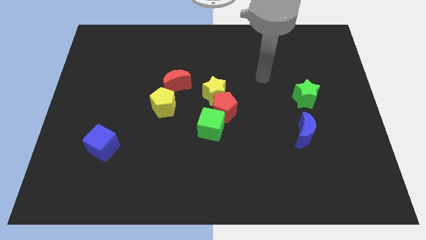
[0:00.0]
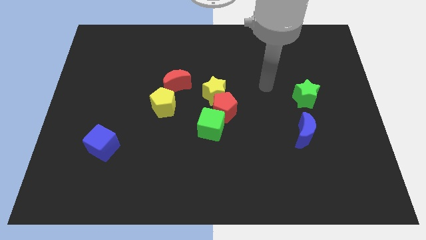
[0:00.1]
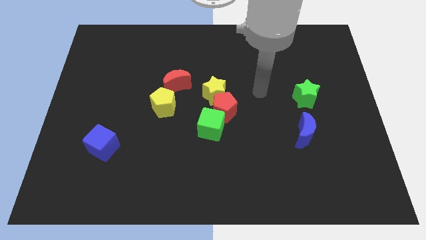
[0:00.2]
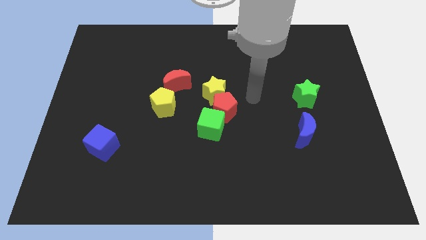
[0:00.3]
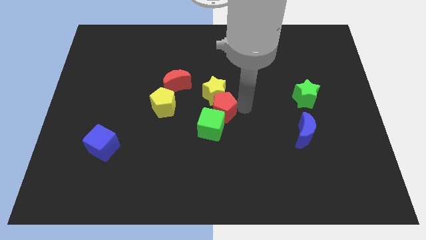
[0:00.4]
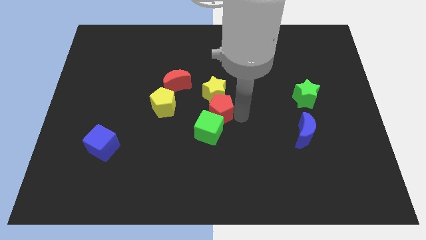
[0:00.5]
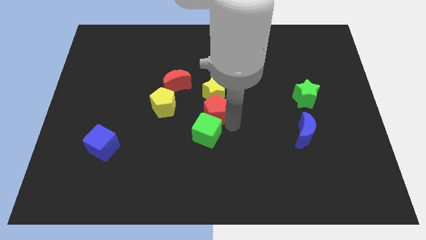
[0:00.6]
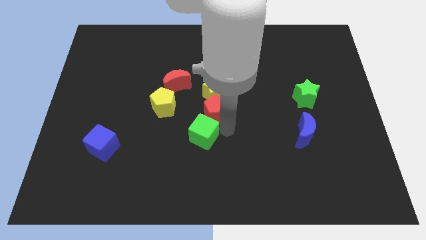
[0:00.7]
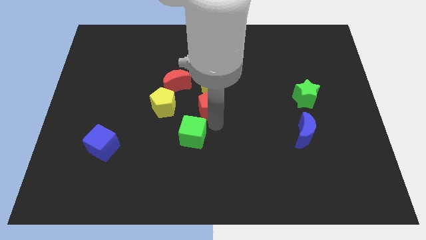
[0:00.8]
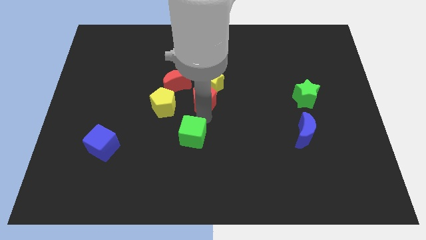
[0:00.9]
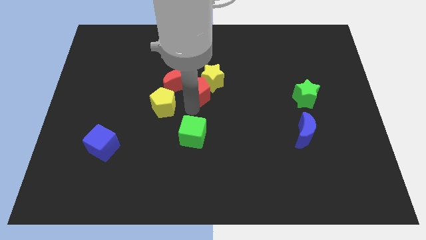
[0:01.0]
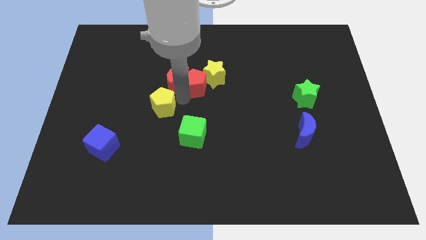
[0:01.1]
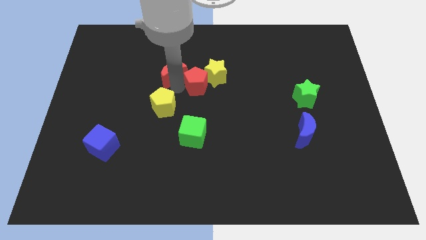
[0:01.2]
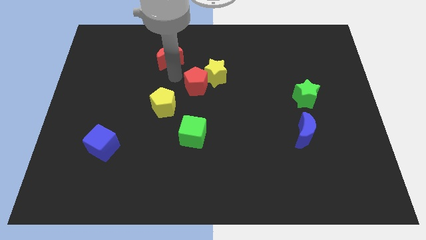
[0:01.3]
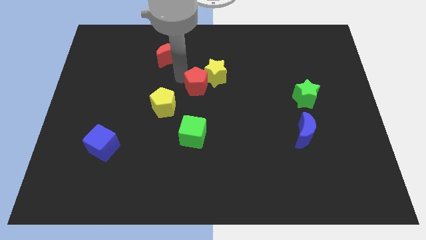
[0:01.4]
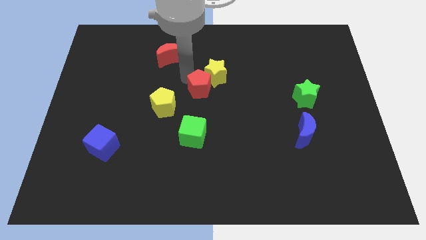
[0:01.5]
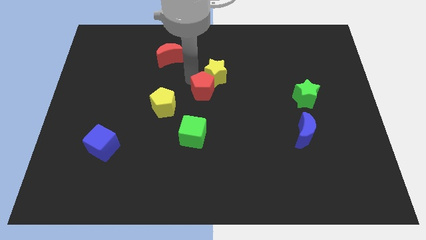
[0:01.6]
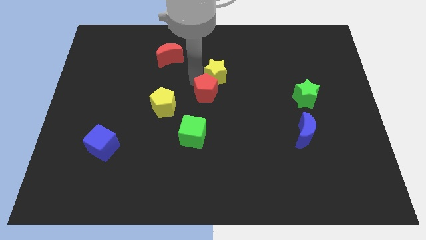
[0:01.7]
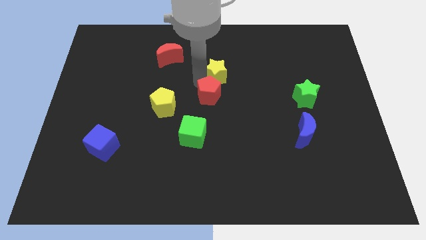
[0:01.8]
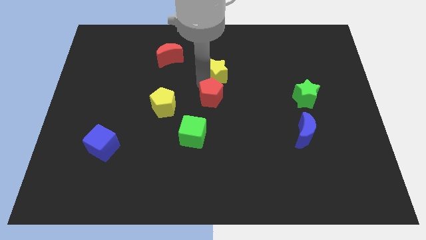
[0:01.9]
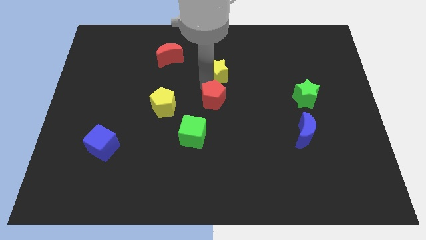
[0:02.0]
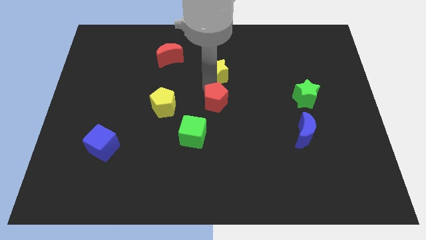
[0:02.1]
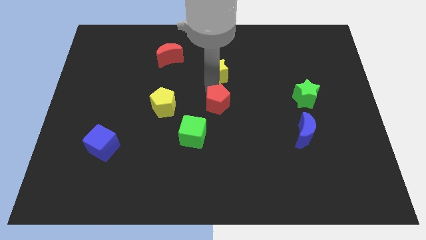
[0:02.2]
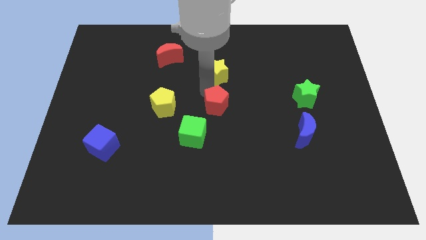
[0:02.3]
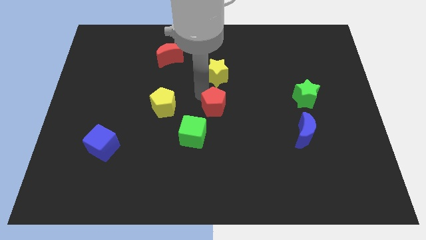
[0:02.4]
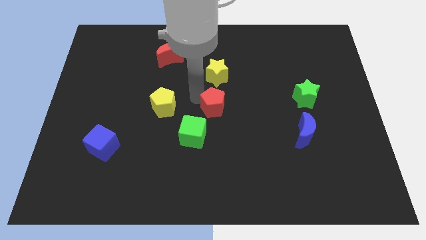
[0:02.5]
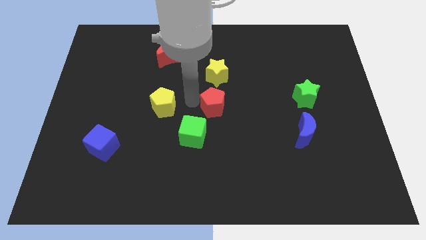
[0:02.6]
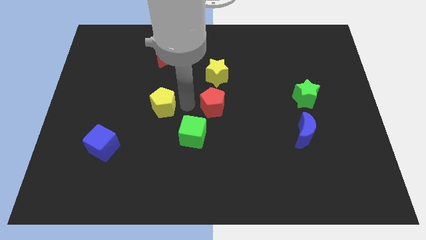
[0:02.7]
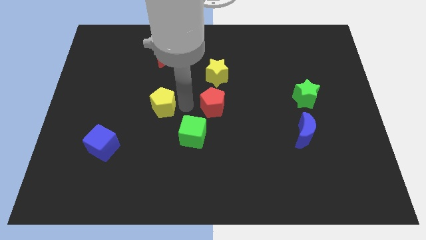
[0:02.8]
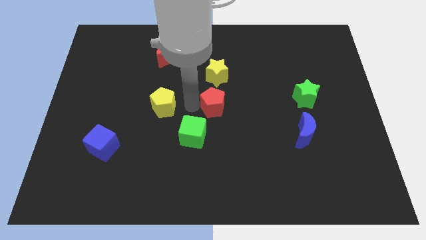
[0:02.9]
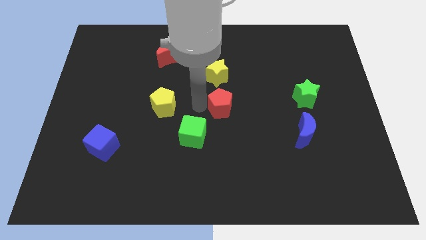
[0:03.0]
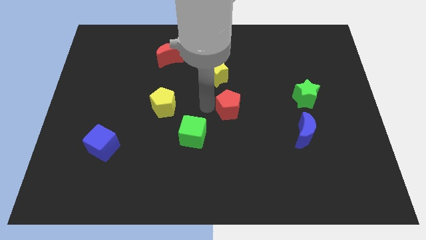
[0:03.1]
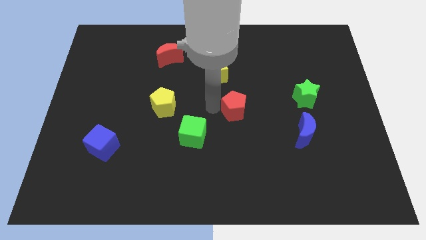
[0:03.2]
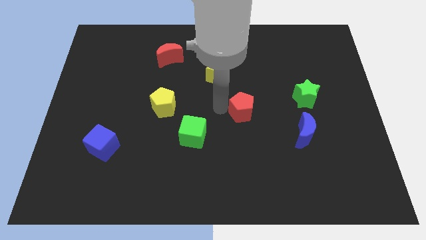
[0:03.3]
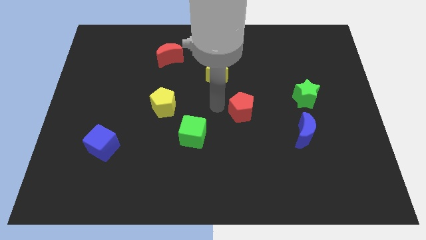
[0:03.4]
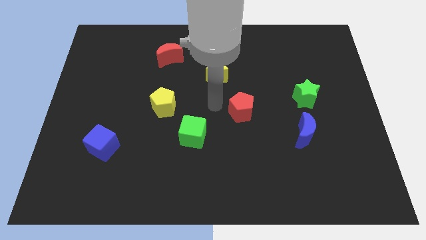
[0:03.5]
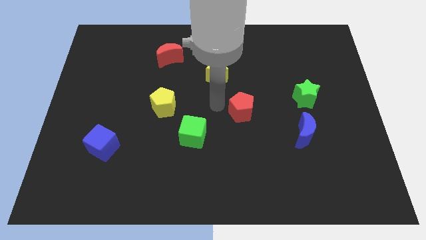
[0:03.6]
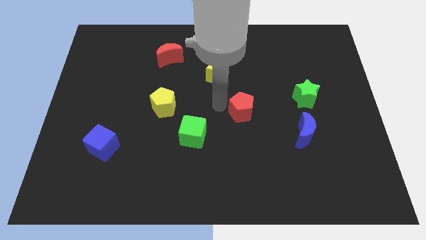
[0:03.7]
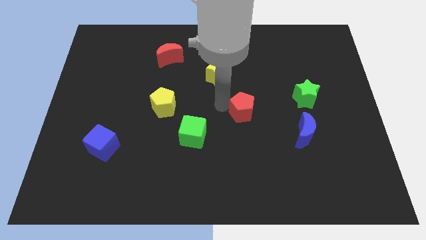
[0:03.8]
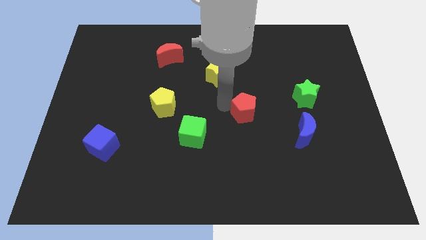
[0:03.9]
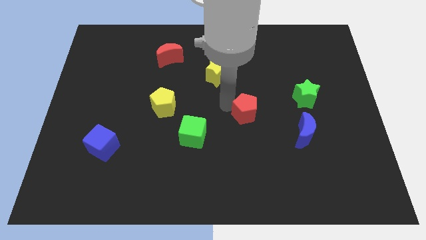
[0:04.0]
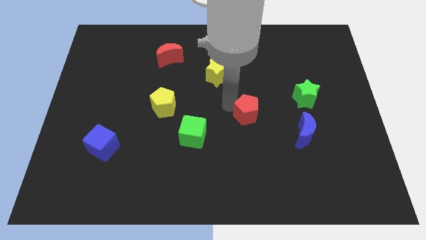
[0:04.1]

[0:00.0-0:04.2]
move the red pentagon away from the yellow star and green cube

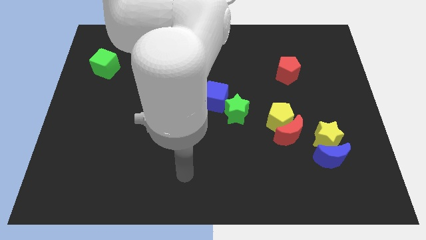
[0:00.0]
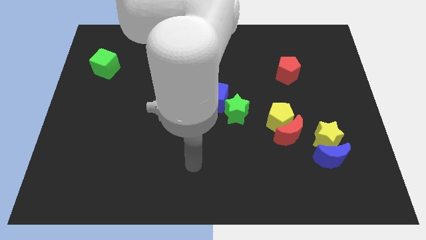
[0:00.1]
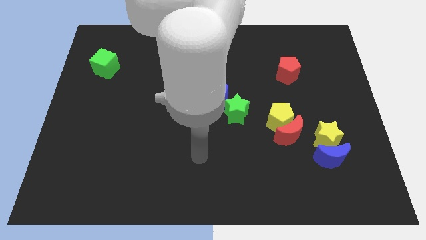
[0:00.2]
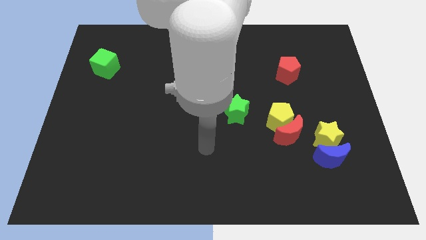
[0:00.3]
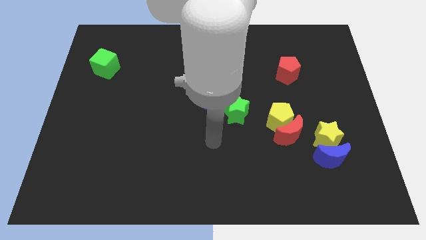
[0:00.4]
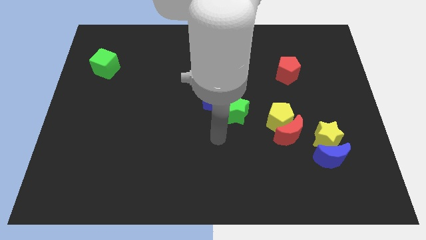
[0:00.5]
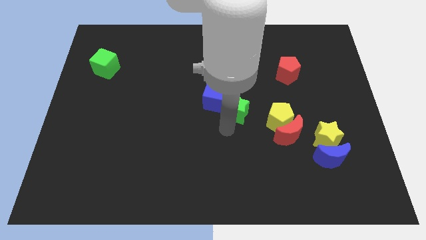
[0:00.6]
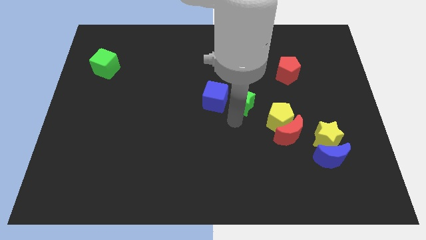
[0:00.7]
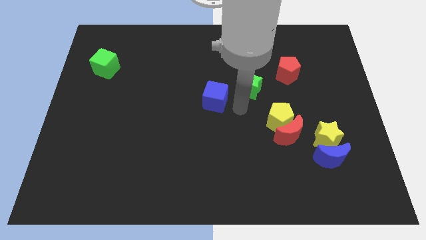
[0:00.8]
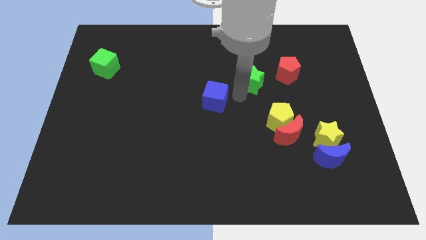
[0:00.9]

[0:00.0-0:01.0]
pull the blue cube apart from the green star

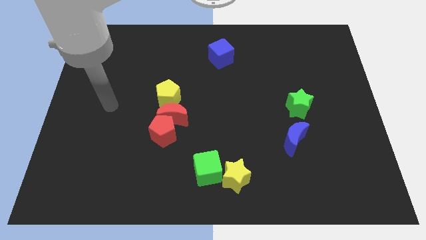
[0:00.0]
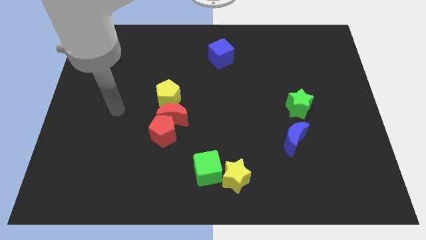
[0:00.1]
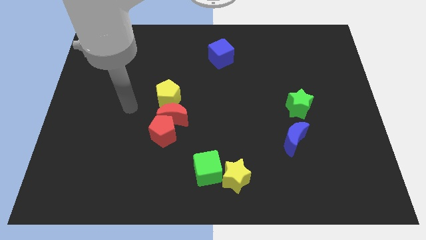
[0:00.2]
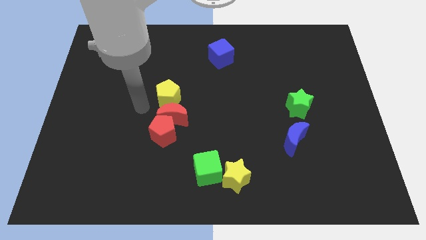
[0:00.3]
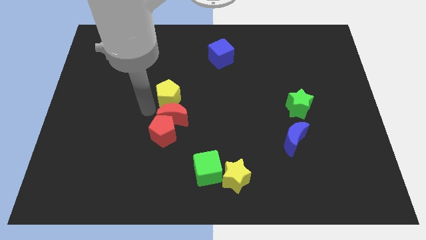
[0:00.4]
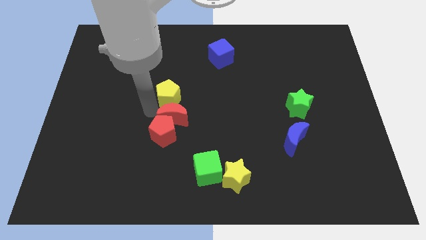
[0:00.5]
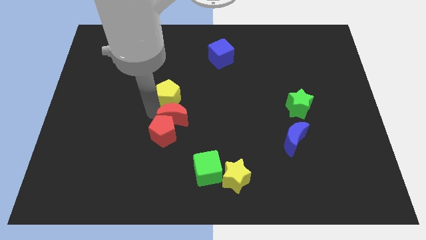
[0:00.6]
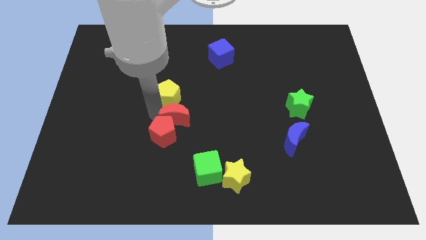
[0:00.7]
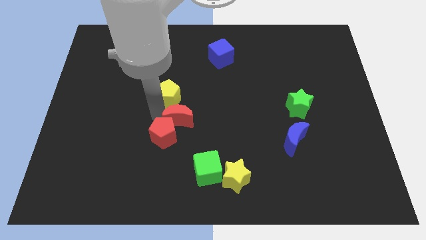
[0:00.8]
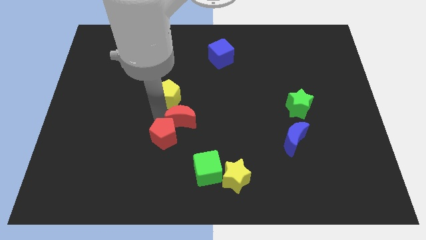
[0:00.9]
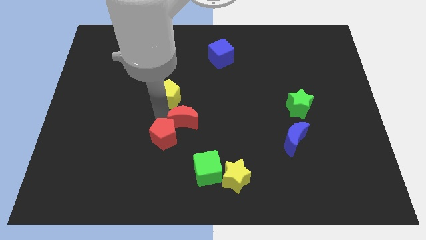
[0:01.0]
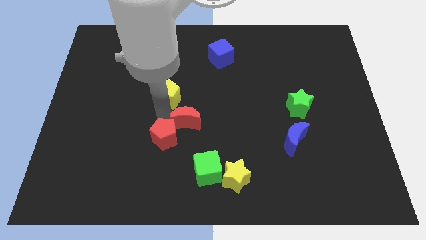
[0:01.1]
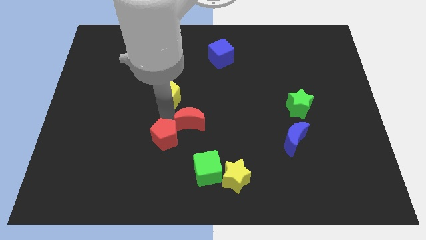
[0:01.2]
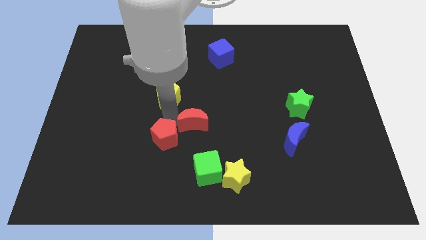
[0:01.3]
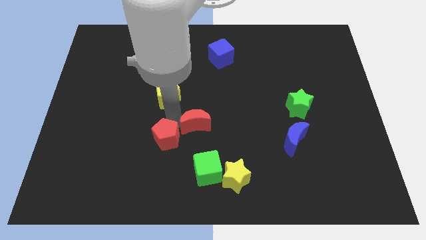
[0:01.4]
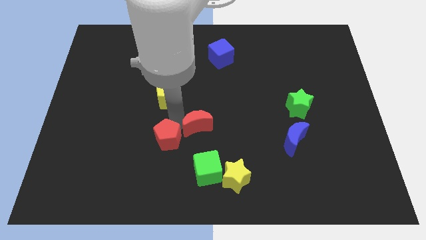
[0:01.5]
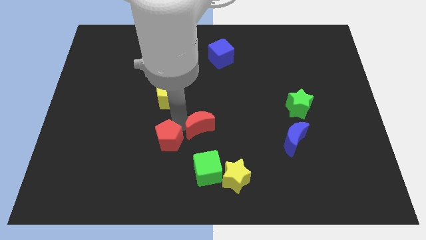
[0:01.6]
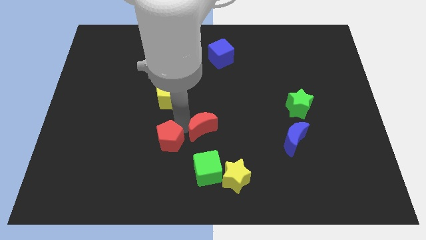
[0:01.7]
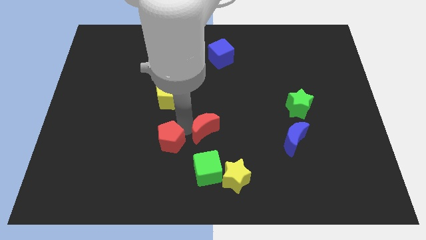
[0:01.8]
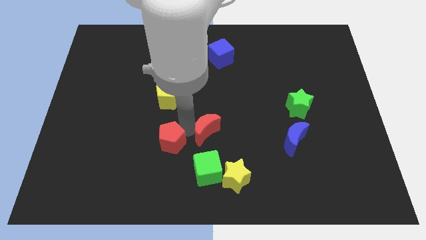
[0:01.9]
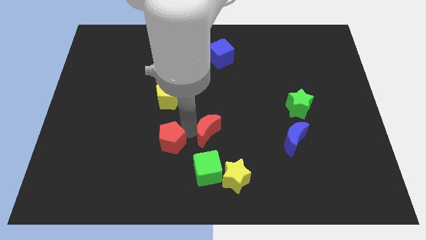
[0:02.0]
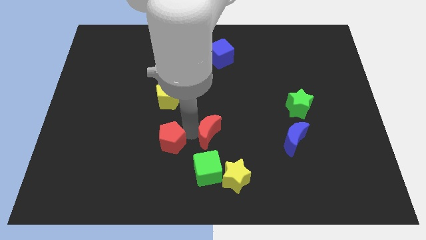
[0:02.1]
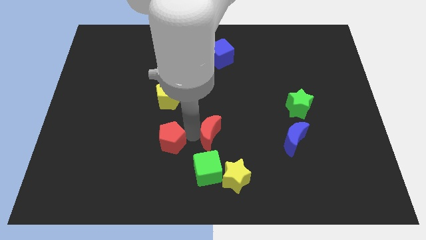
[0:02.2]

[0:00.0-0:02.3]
move the red moon away from the red pentagon and yellow pentagon

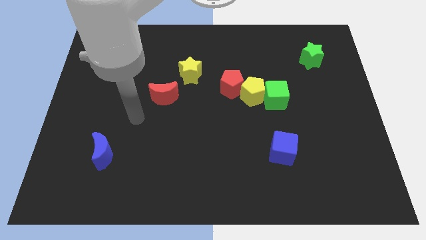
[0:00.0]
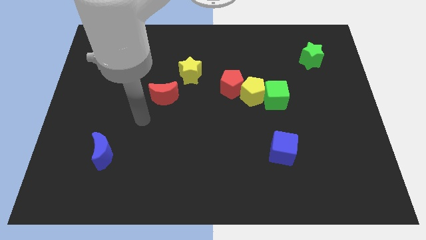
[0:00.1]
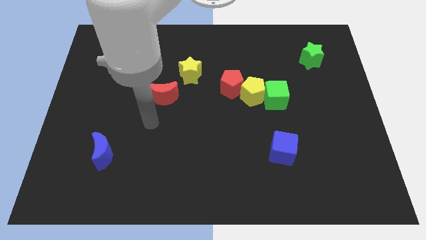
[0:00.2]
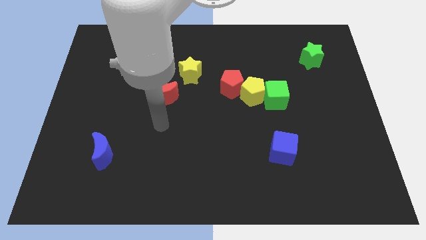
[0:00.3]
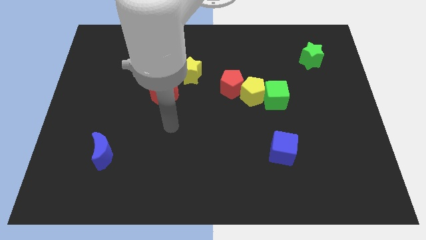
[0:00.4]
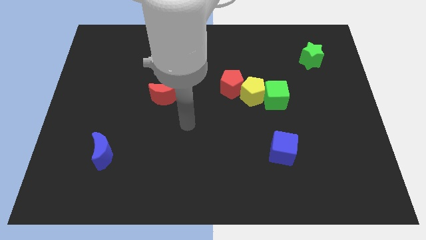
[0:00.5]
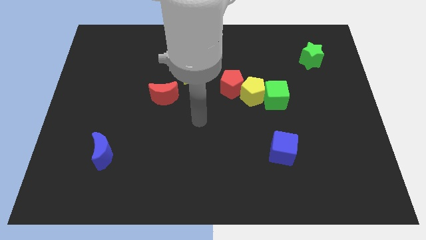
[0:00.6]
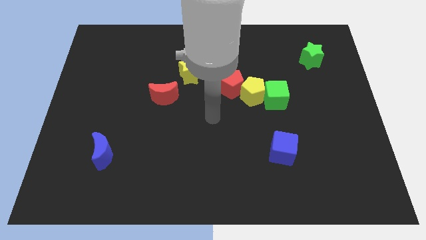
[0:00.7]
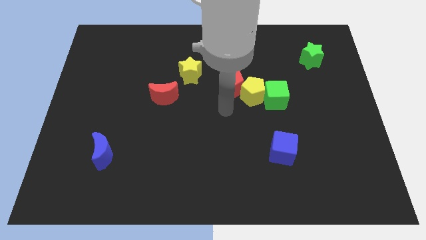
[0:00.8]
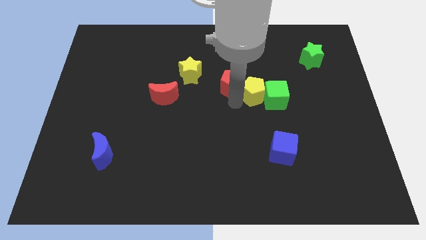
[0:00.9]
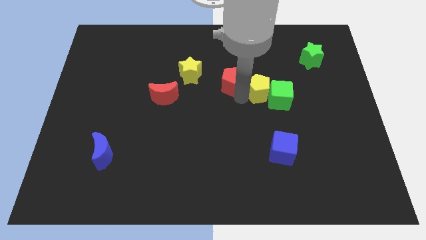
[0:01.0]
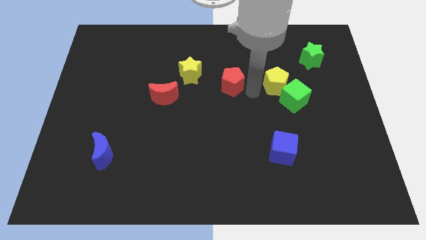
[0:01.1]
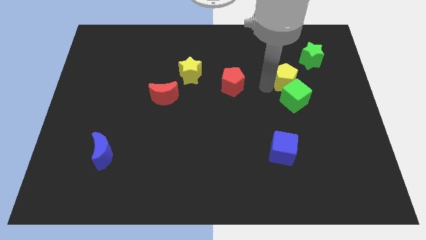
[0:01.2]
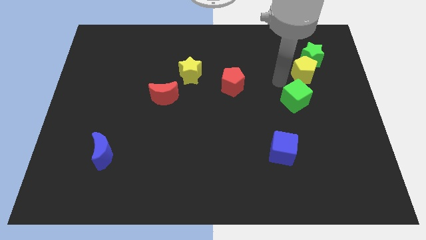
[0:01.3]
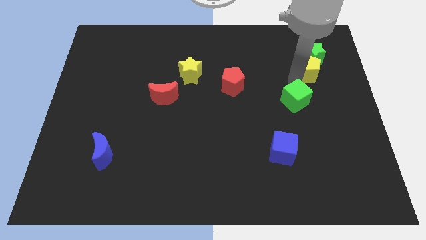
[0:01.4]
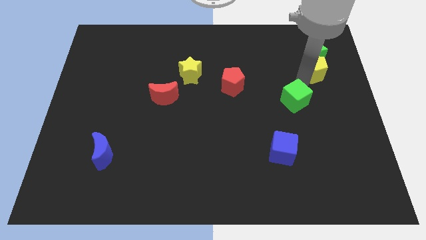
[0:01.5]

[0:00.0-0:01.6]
move the green cube away from the yellow pentagon

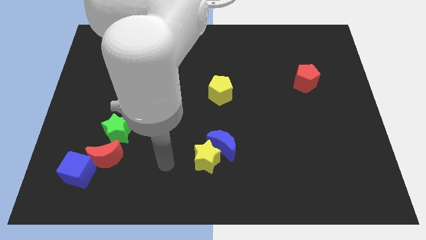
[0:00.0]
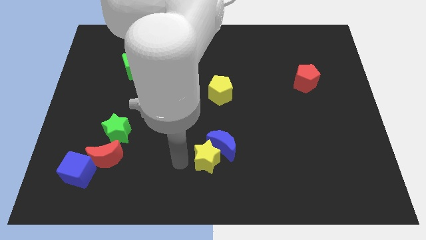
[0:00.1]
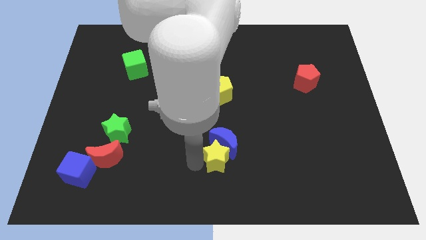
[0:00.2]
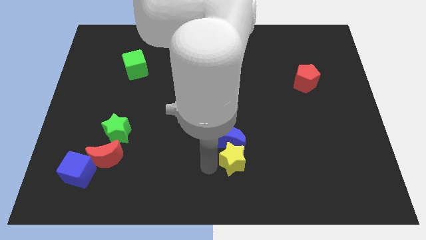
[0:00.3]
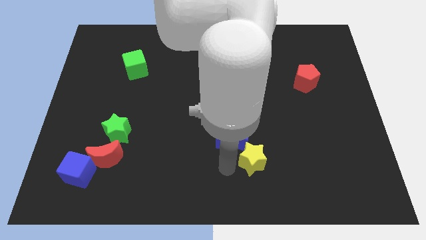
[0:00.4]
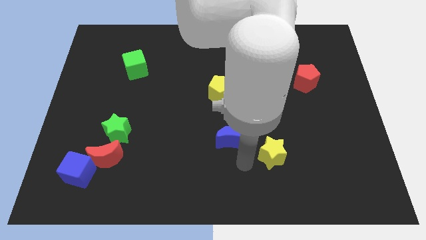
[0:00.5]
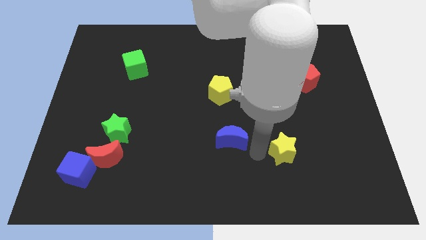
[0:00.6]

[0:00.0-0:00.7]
separate the blue moon from the yellow star
